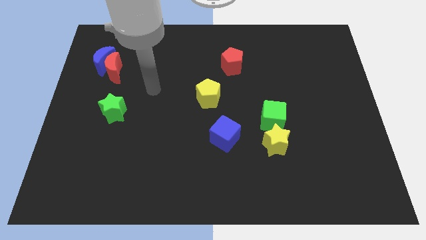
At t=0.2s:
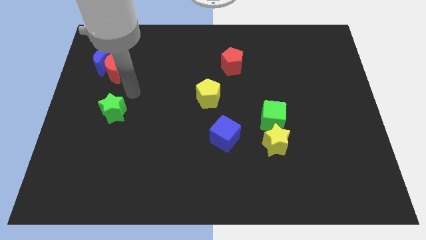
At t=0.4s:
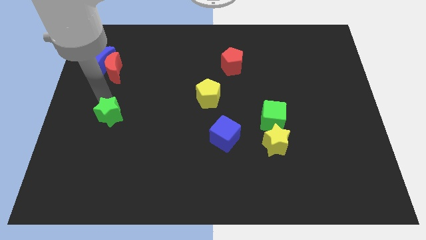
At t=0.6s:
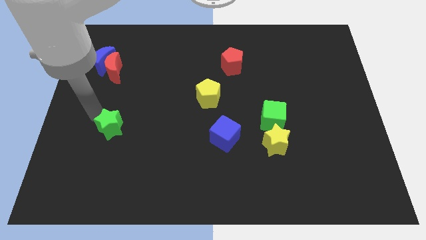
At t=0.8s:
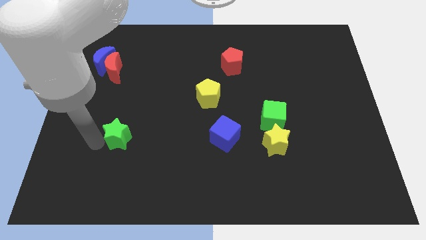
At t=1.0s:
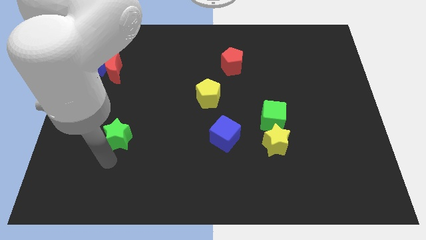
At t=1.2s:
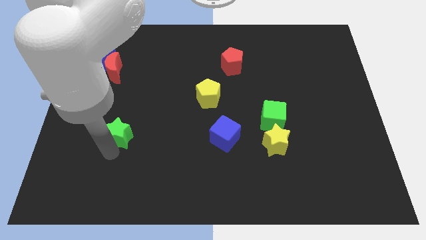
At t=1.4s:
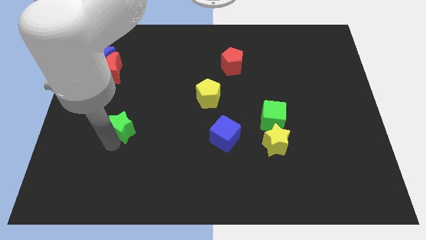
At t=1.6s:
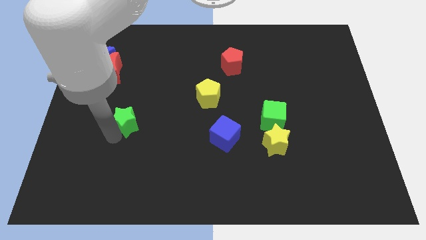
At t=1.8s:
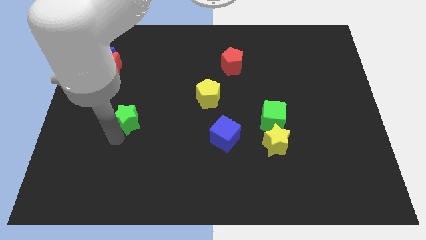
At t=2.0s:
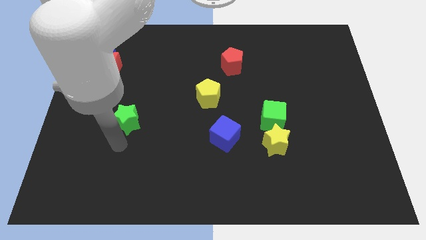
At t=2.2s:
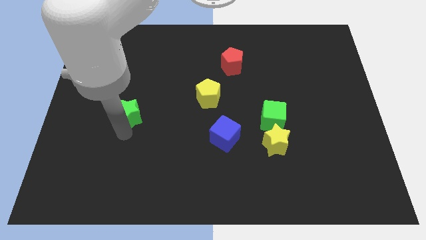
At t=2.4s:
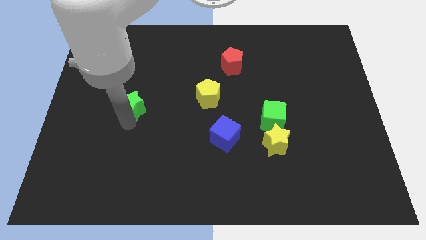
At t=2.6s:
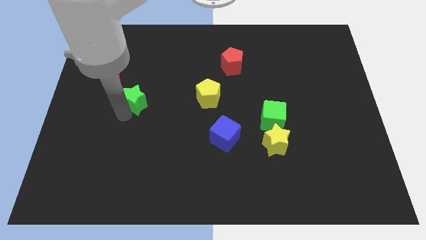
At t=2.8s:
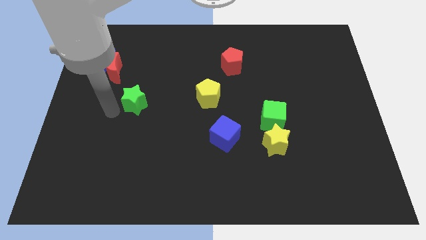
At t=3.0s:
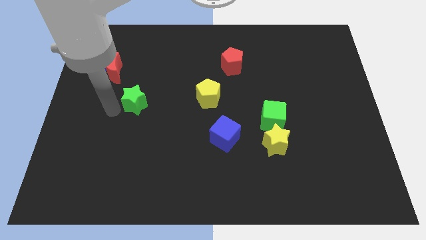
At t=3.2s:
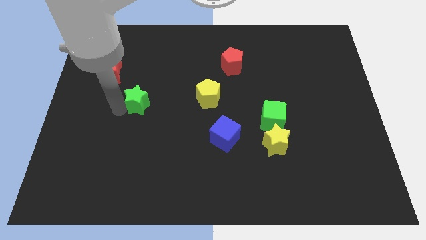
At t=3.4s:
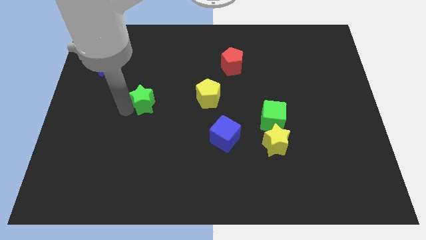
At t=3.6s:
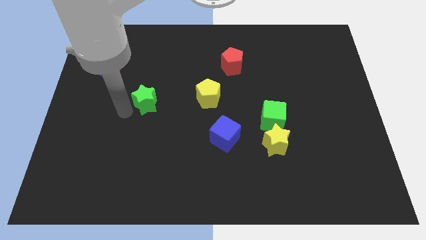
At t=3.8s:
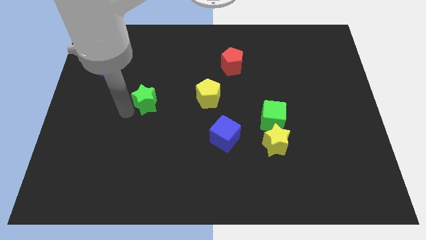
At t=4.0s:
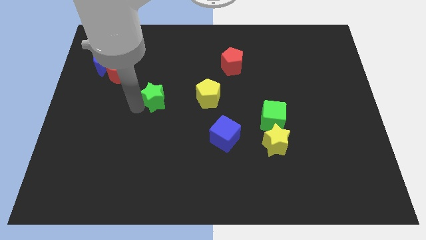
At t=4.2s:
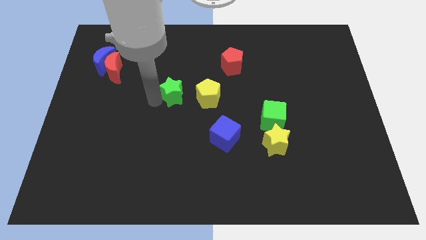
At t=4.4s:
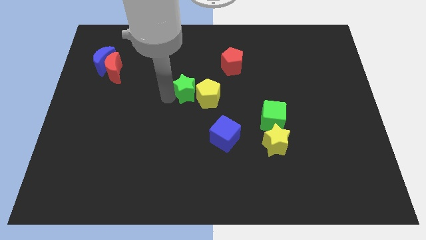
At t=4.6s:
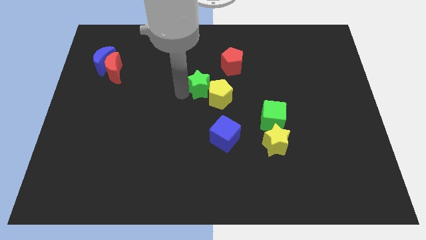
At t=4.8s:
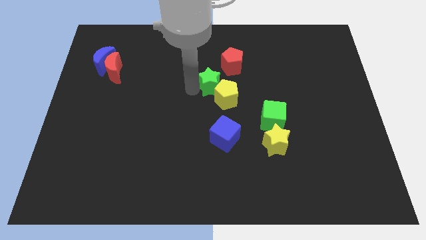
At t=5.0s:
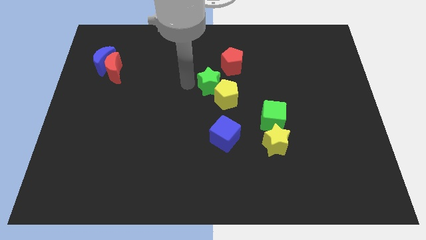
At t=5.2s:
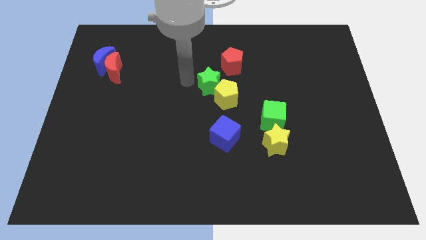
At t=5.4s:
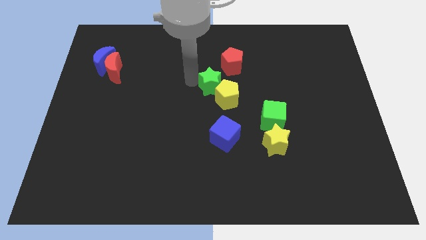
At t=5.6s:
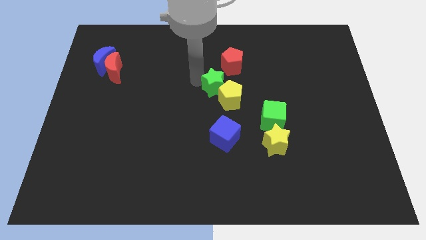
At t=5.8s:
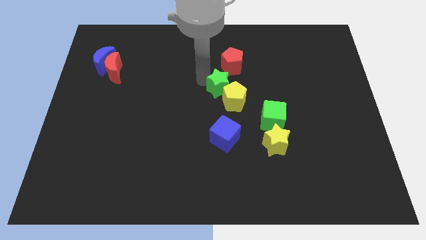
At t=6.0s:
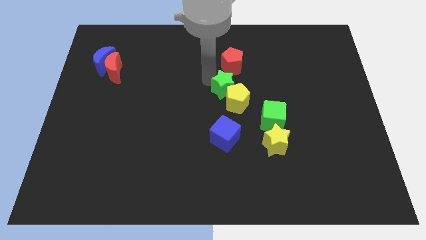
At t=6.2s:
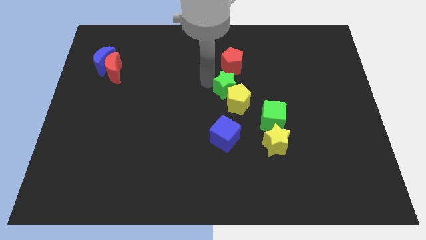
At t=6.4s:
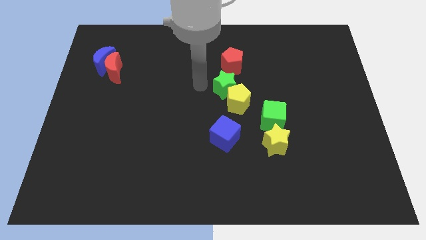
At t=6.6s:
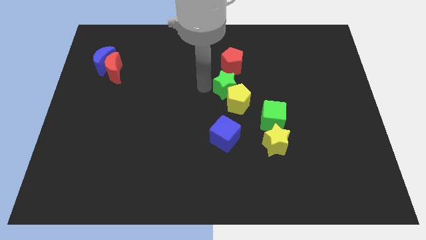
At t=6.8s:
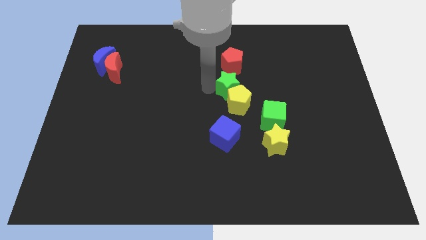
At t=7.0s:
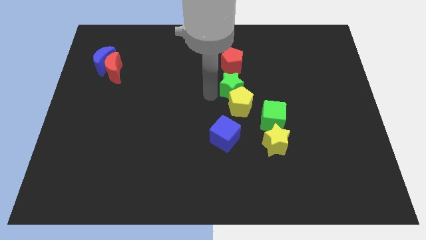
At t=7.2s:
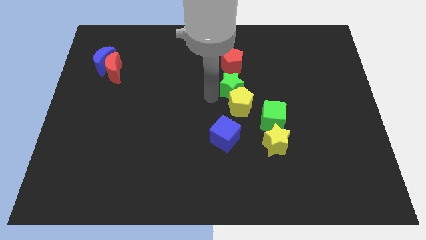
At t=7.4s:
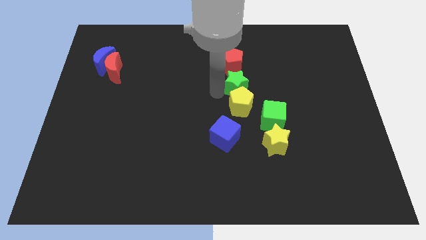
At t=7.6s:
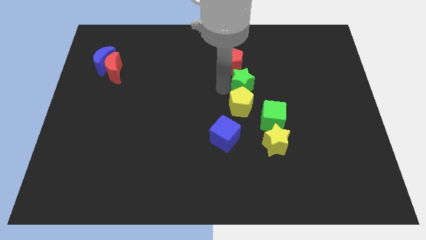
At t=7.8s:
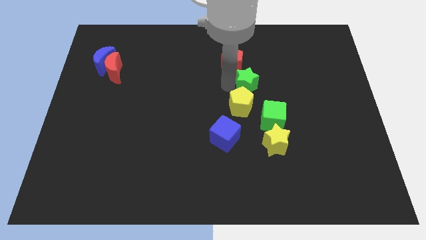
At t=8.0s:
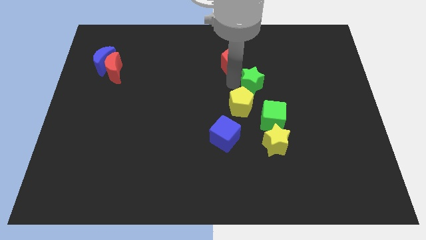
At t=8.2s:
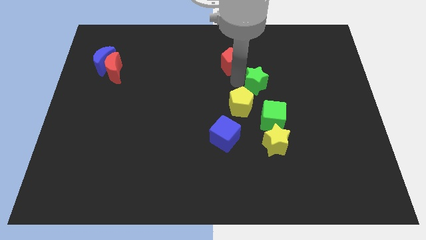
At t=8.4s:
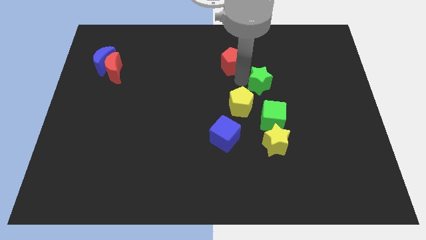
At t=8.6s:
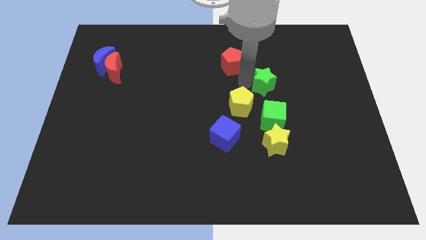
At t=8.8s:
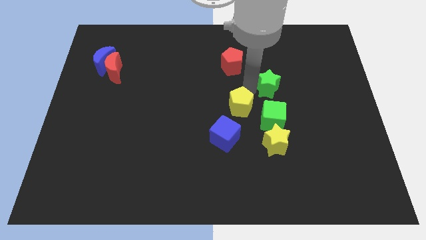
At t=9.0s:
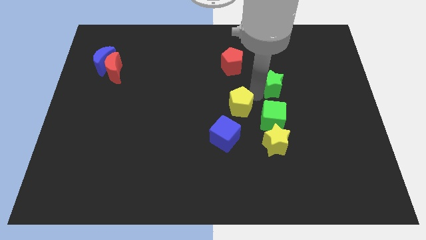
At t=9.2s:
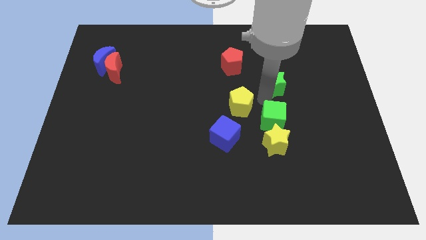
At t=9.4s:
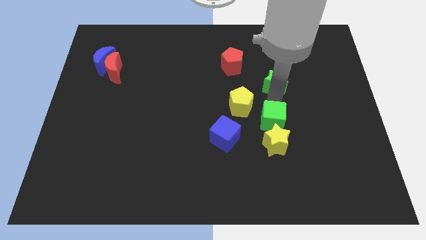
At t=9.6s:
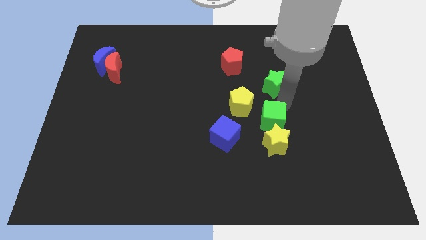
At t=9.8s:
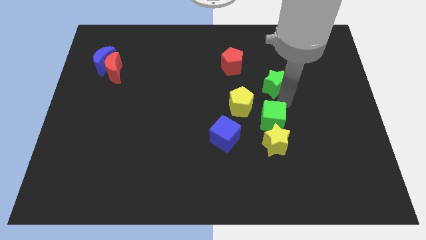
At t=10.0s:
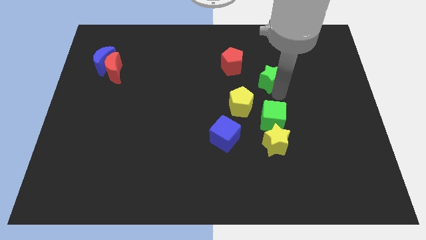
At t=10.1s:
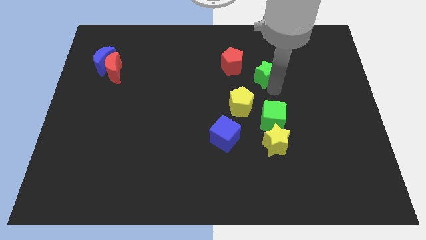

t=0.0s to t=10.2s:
move the green star to the right of the red pentagon

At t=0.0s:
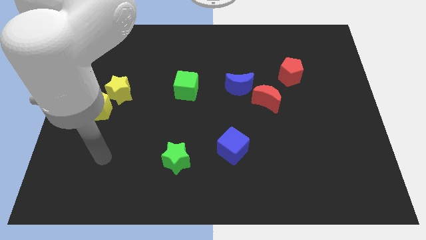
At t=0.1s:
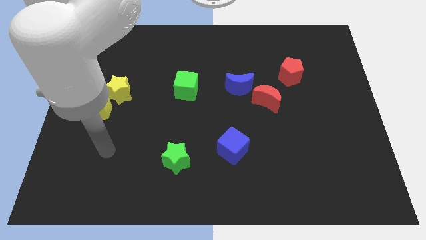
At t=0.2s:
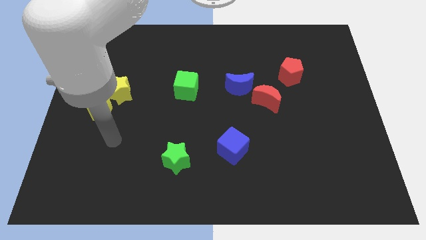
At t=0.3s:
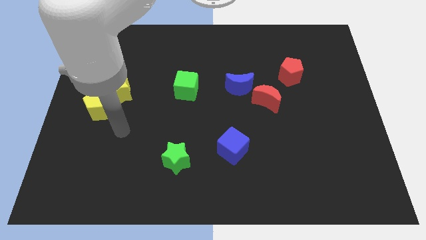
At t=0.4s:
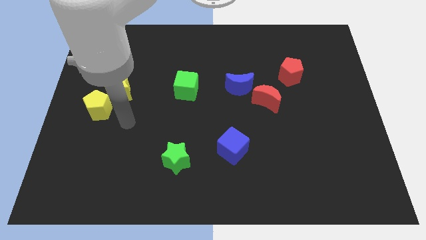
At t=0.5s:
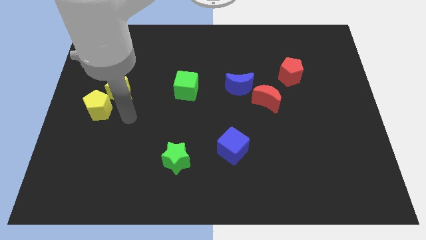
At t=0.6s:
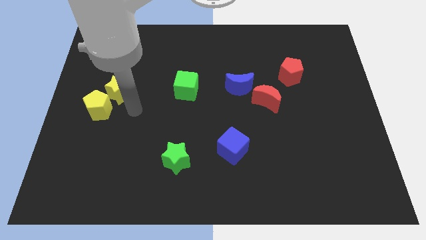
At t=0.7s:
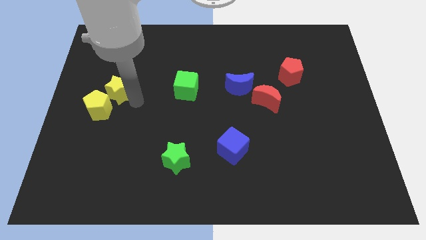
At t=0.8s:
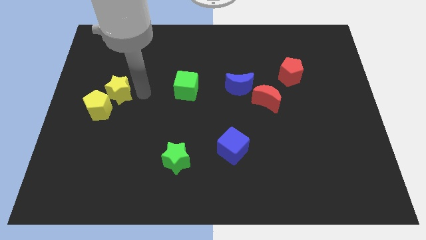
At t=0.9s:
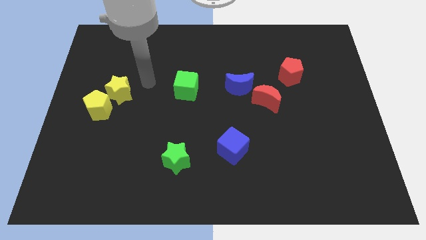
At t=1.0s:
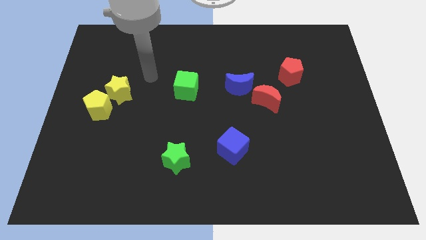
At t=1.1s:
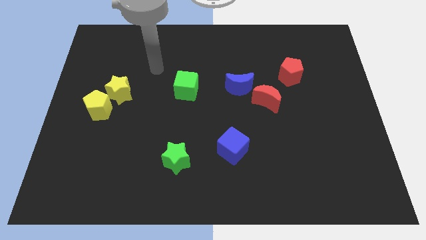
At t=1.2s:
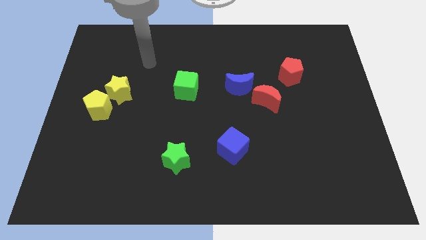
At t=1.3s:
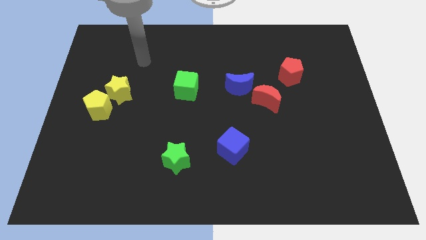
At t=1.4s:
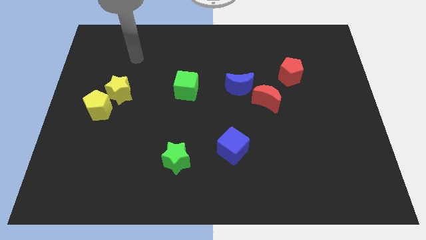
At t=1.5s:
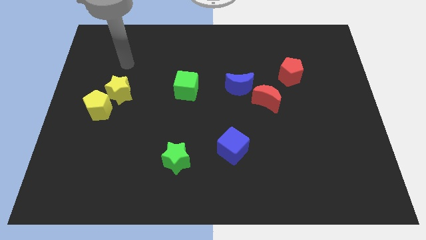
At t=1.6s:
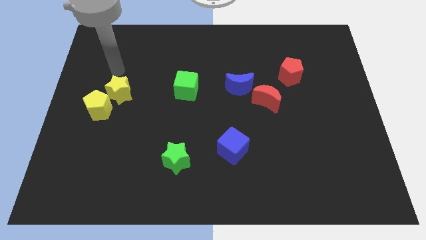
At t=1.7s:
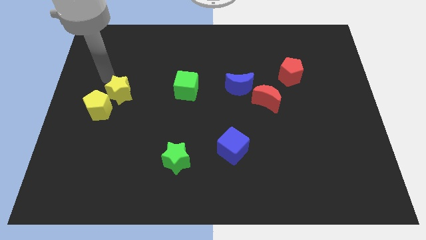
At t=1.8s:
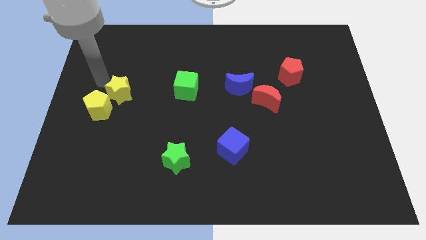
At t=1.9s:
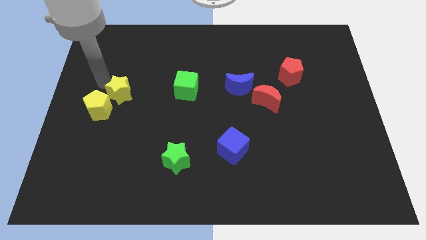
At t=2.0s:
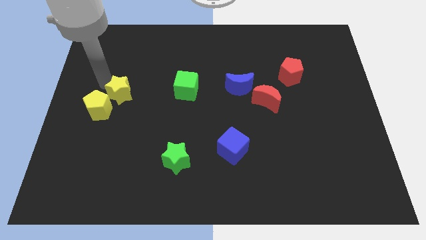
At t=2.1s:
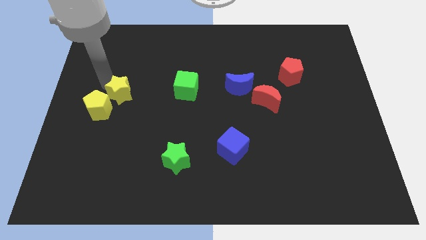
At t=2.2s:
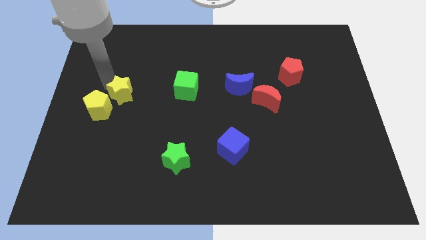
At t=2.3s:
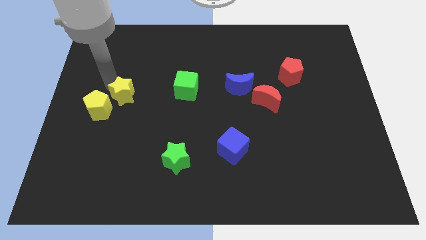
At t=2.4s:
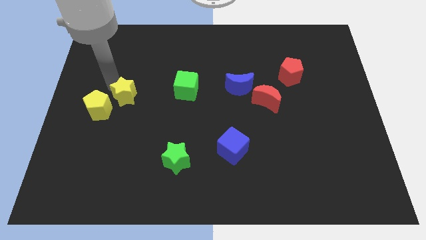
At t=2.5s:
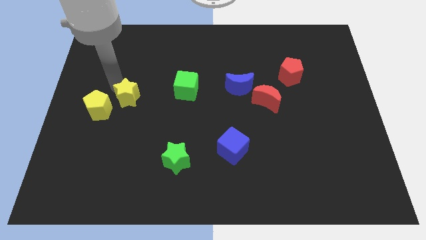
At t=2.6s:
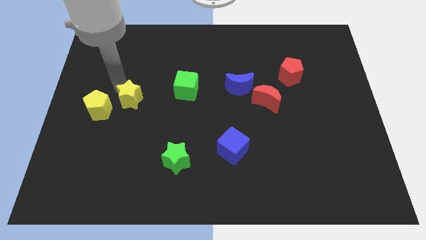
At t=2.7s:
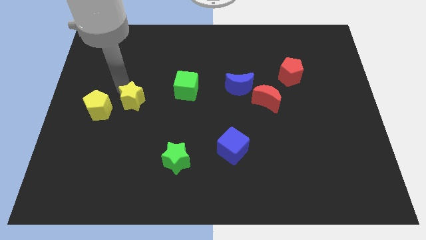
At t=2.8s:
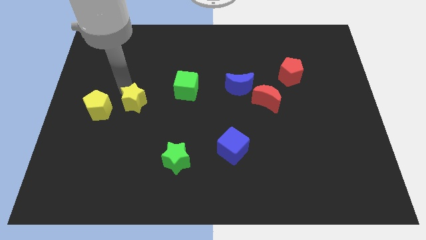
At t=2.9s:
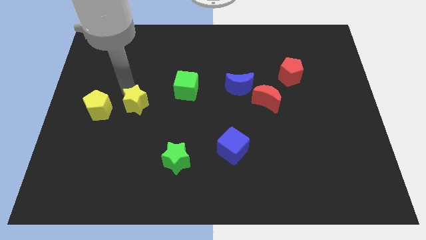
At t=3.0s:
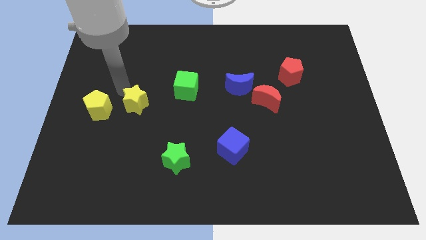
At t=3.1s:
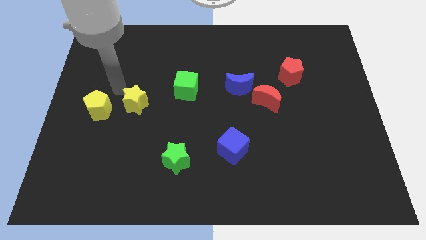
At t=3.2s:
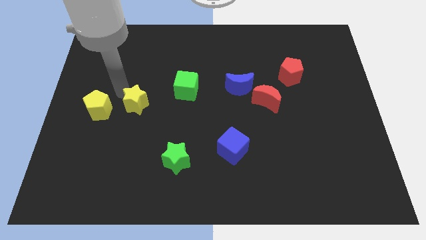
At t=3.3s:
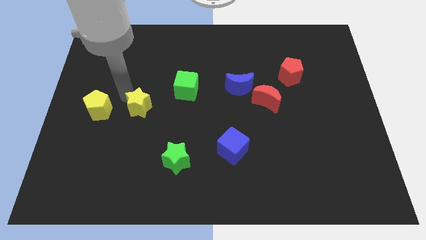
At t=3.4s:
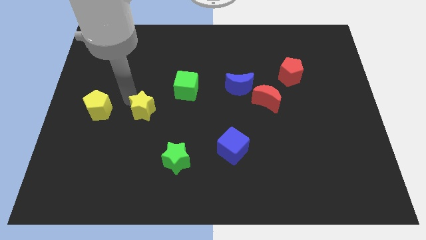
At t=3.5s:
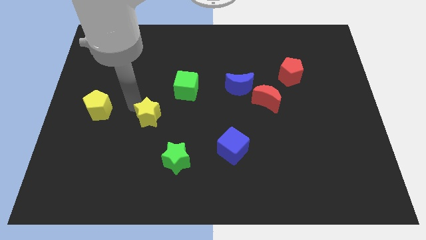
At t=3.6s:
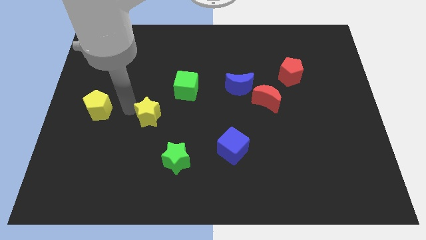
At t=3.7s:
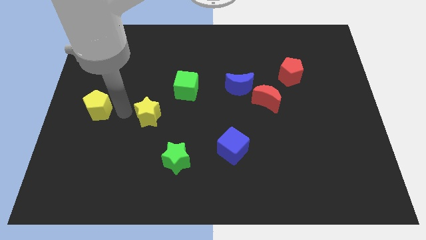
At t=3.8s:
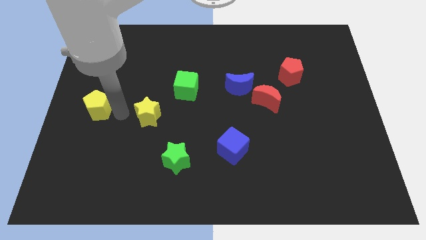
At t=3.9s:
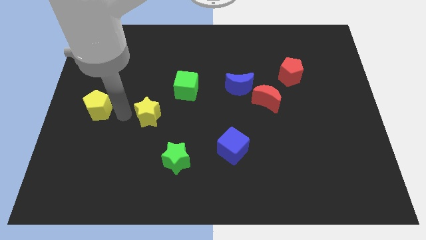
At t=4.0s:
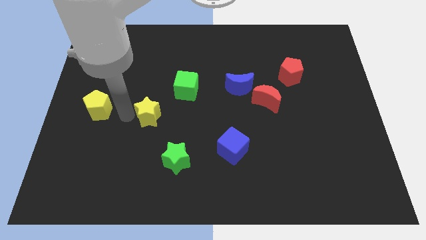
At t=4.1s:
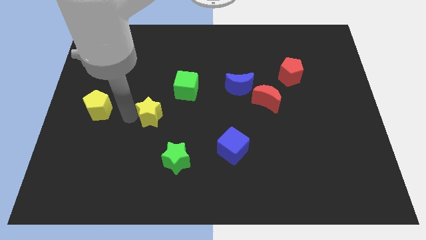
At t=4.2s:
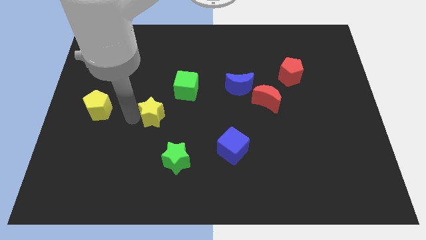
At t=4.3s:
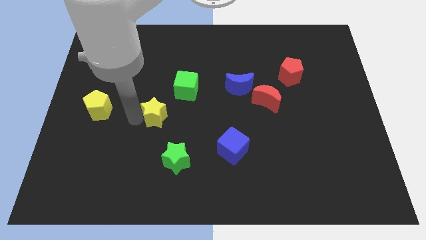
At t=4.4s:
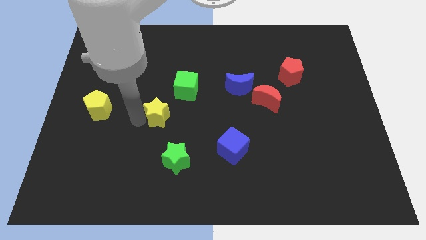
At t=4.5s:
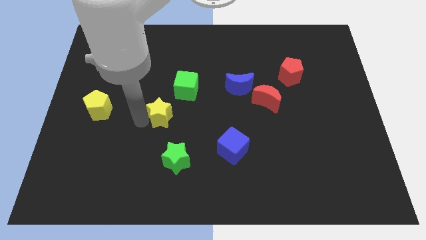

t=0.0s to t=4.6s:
put the yellow star above the green star
